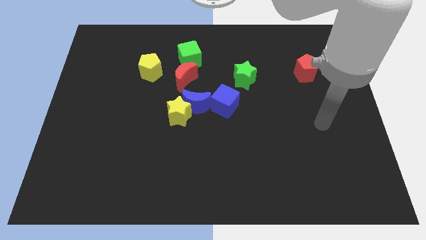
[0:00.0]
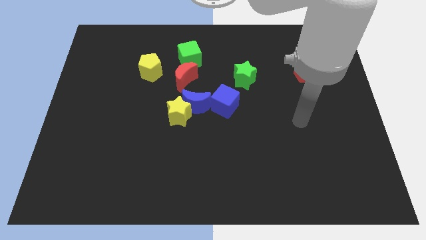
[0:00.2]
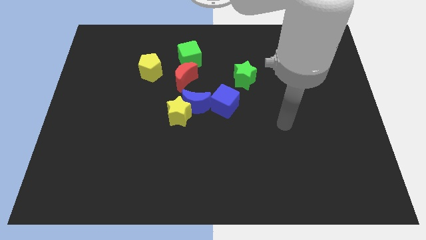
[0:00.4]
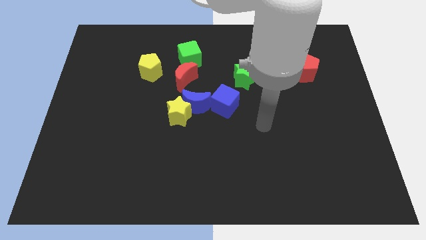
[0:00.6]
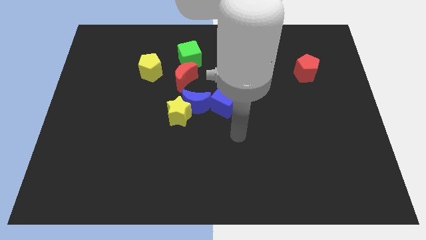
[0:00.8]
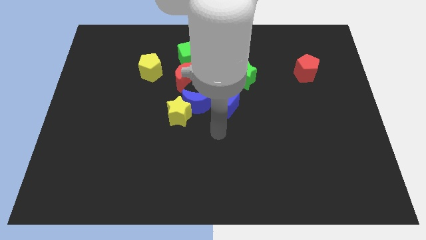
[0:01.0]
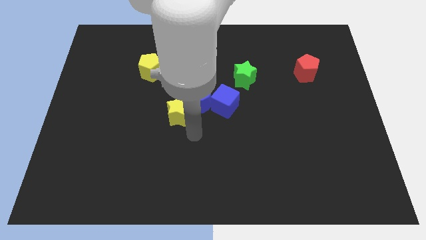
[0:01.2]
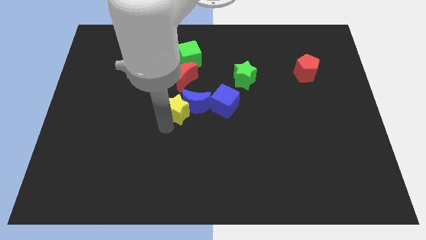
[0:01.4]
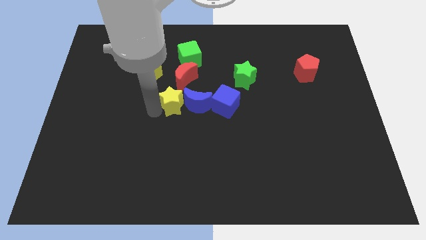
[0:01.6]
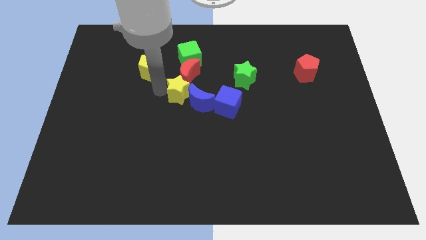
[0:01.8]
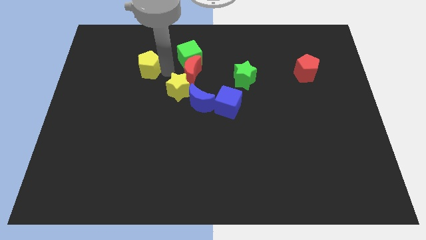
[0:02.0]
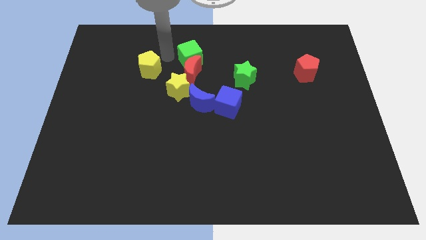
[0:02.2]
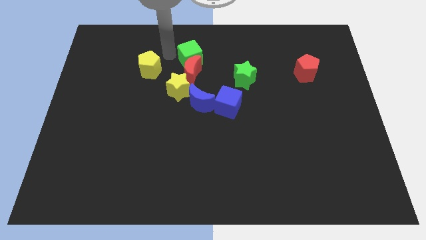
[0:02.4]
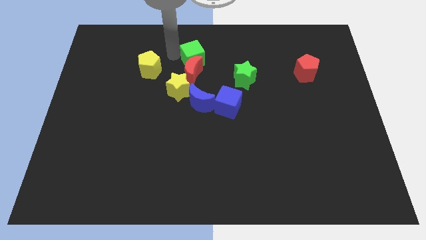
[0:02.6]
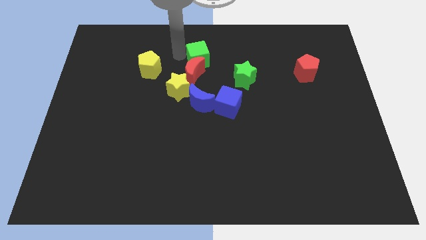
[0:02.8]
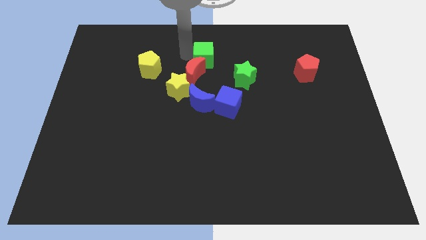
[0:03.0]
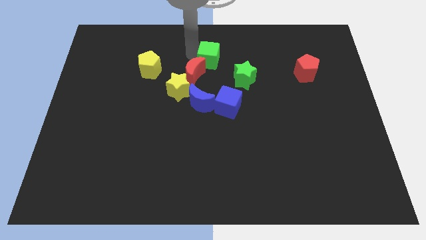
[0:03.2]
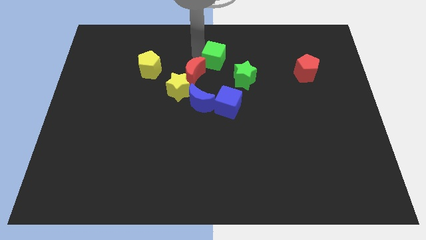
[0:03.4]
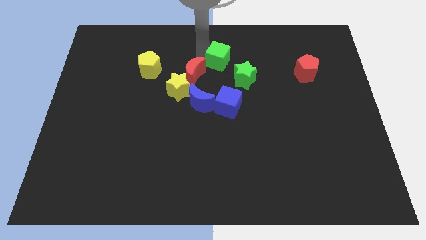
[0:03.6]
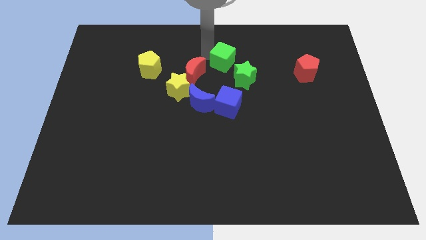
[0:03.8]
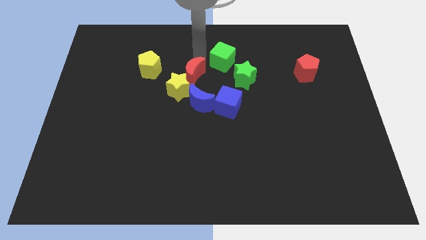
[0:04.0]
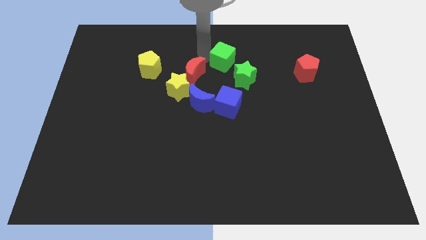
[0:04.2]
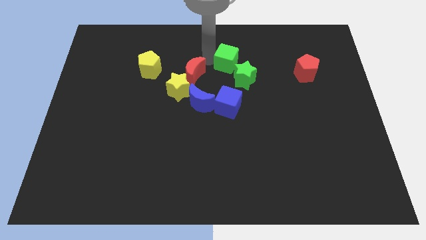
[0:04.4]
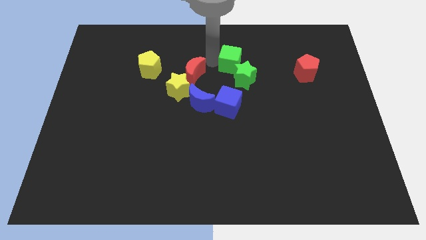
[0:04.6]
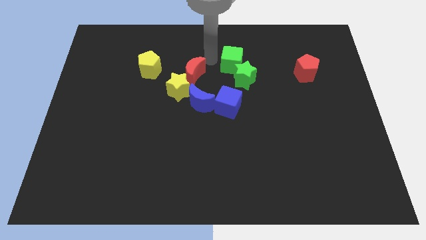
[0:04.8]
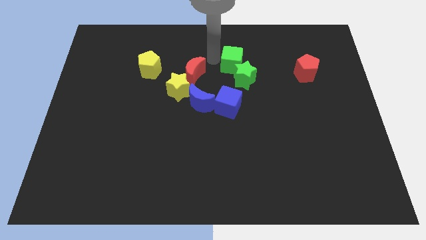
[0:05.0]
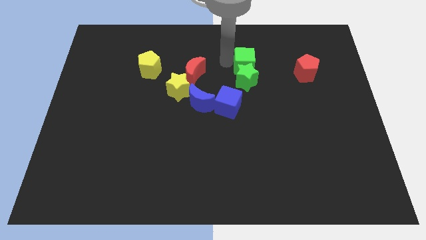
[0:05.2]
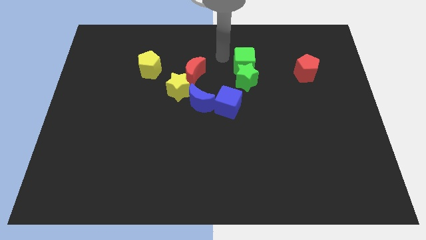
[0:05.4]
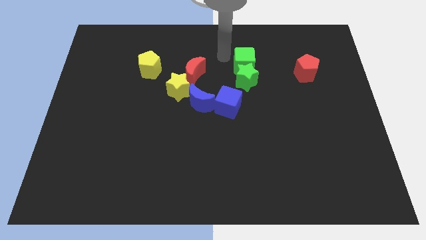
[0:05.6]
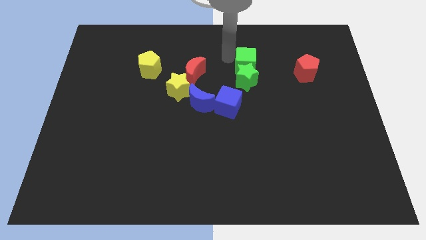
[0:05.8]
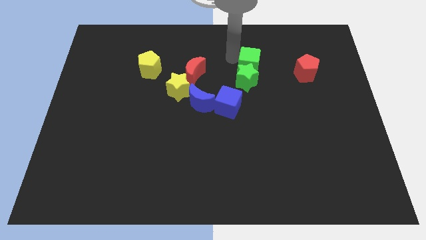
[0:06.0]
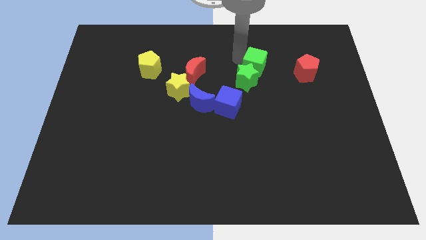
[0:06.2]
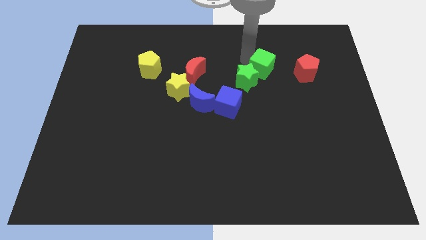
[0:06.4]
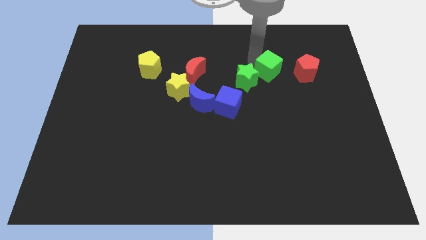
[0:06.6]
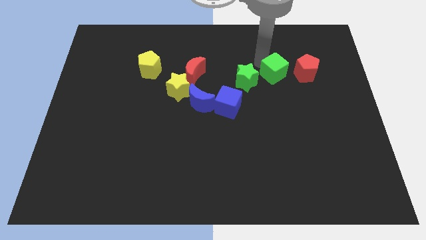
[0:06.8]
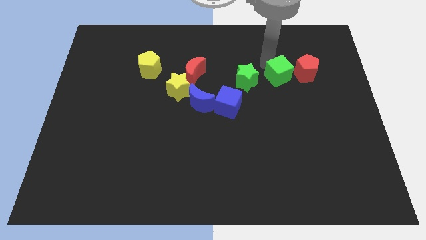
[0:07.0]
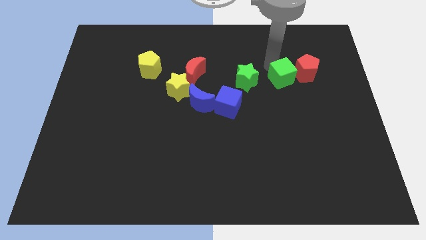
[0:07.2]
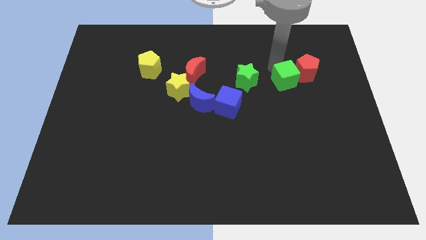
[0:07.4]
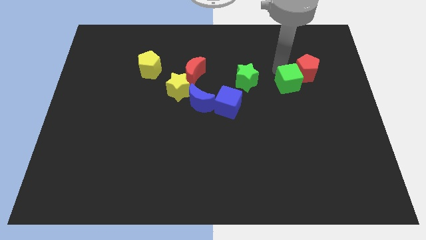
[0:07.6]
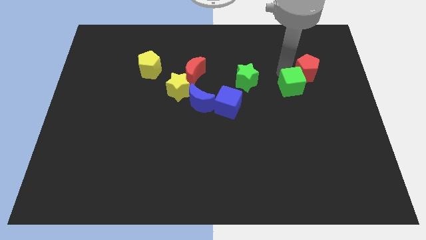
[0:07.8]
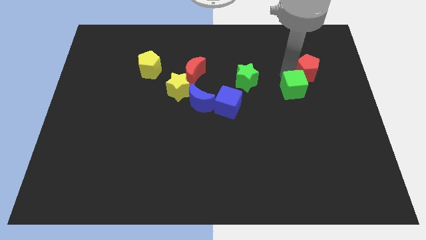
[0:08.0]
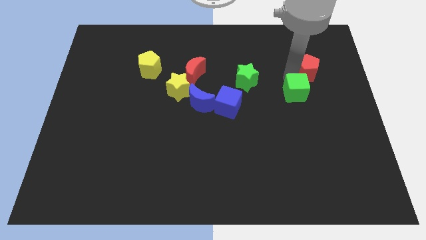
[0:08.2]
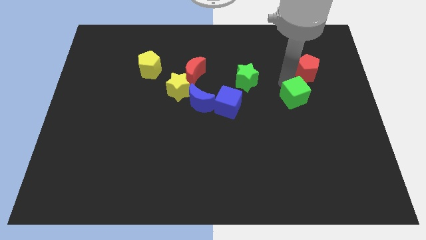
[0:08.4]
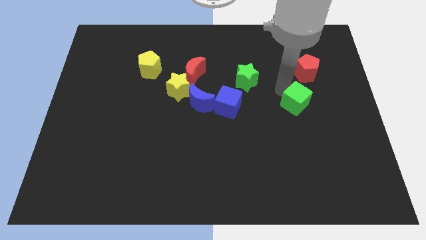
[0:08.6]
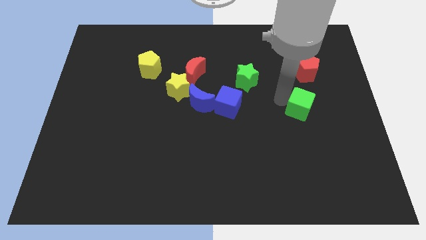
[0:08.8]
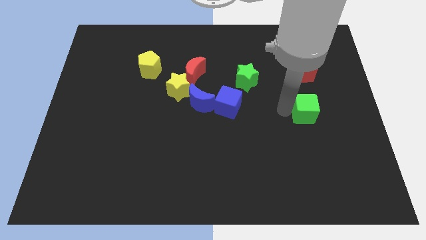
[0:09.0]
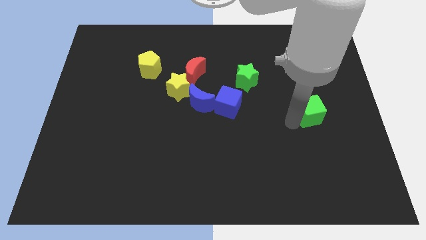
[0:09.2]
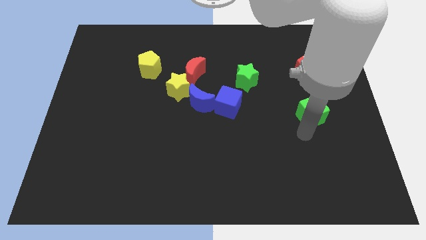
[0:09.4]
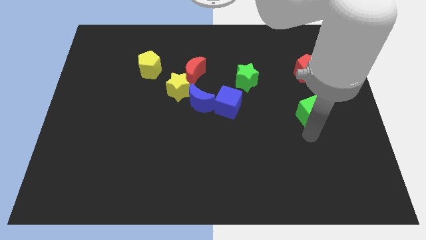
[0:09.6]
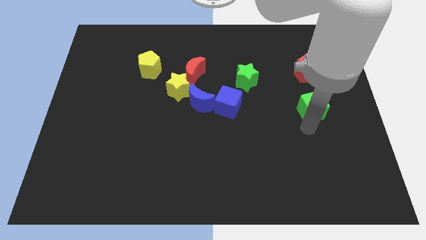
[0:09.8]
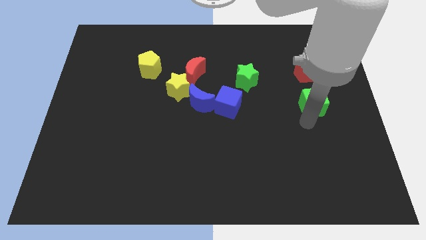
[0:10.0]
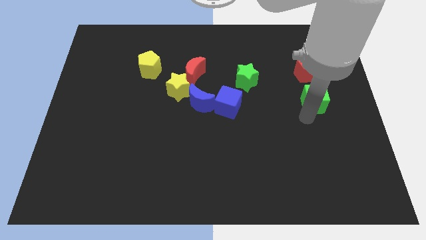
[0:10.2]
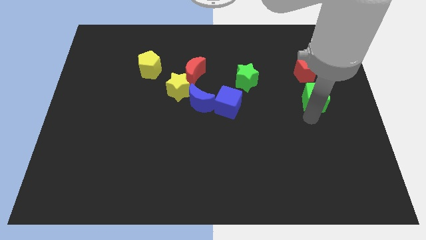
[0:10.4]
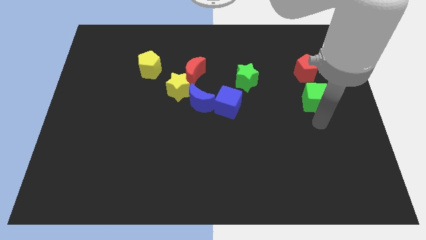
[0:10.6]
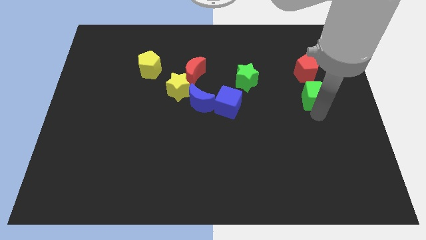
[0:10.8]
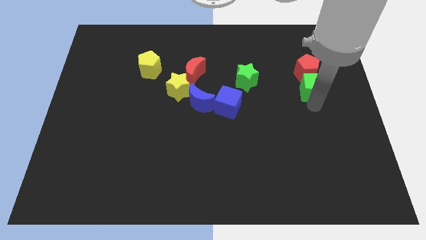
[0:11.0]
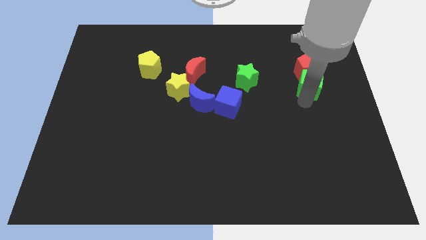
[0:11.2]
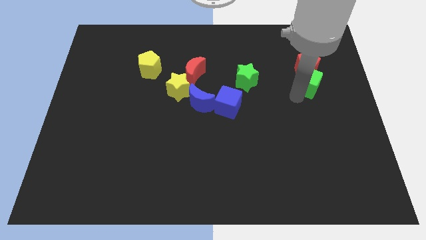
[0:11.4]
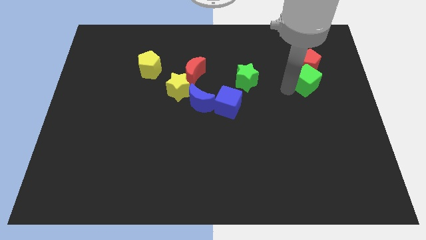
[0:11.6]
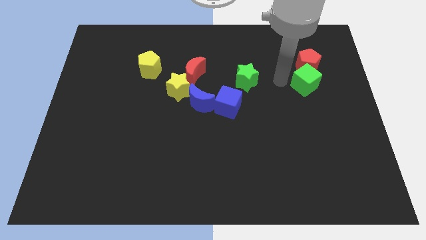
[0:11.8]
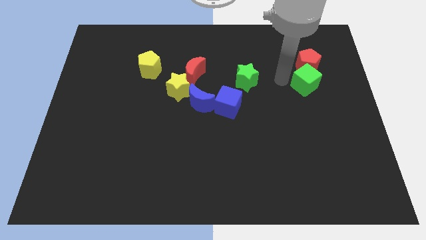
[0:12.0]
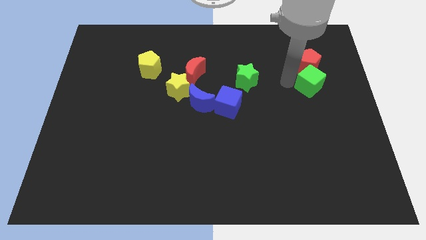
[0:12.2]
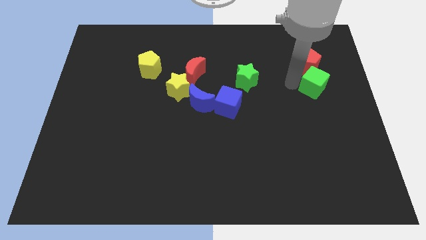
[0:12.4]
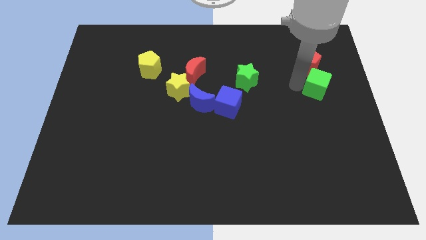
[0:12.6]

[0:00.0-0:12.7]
put the green cube to the right side

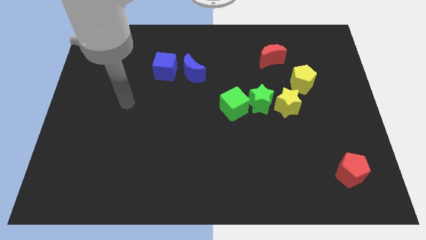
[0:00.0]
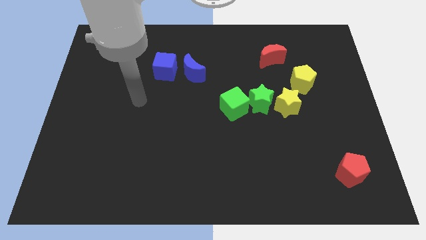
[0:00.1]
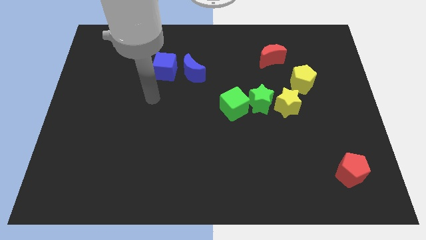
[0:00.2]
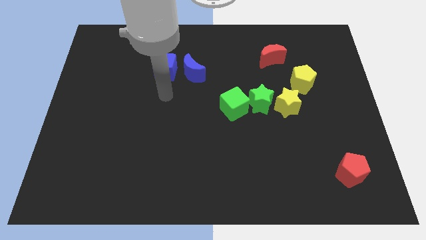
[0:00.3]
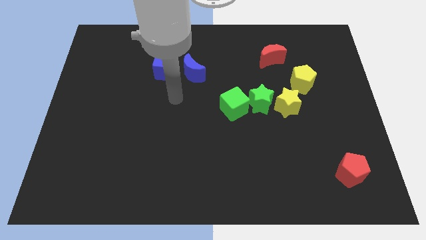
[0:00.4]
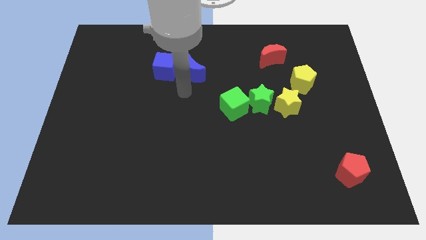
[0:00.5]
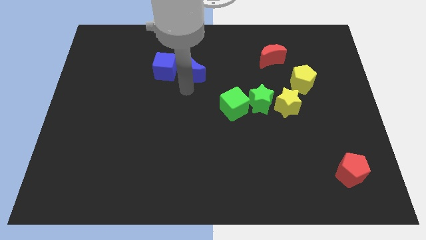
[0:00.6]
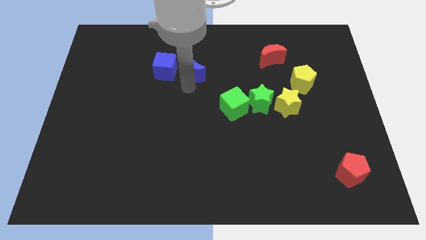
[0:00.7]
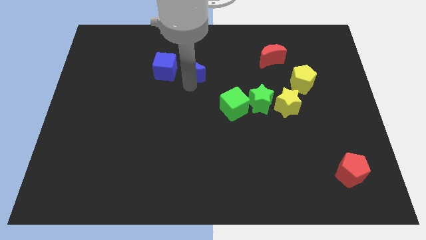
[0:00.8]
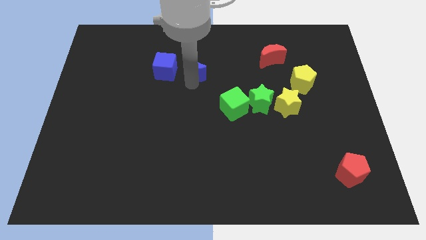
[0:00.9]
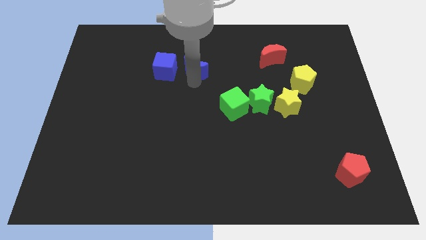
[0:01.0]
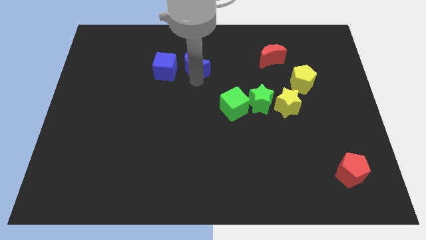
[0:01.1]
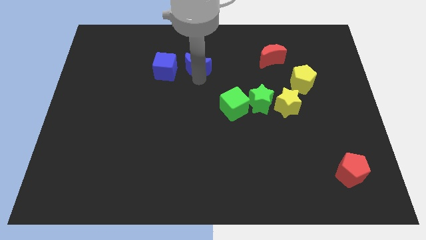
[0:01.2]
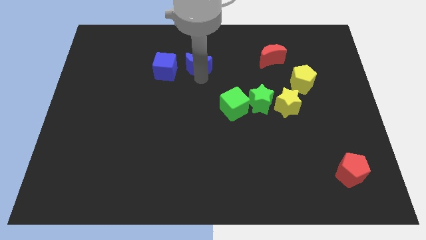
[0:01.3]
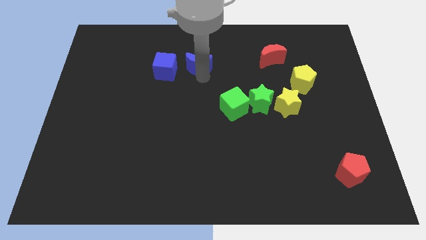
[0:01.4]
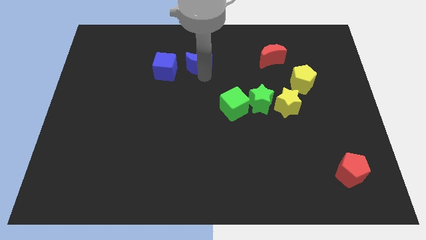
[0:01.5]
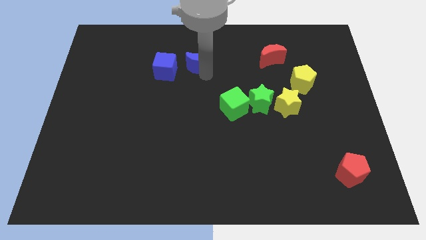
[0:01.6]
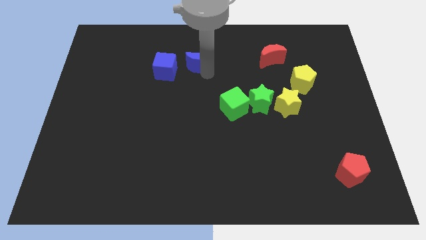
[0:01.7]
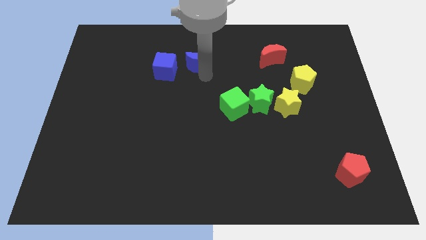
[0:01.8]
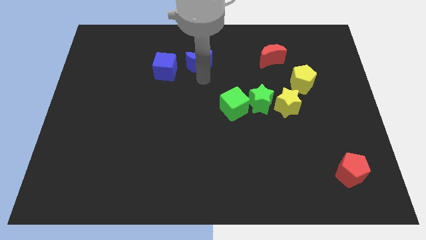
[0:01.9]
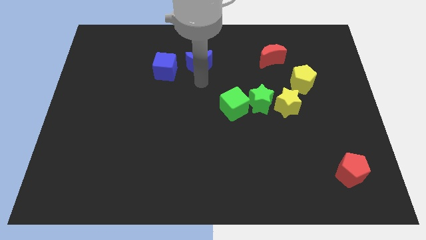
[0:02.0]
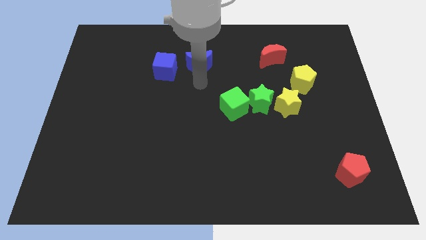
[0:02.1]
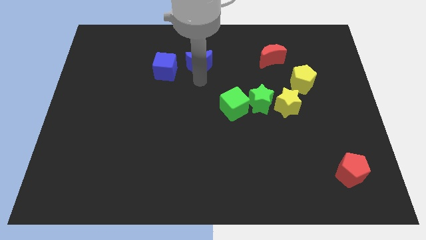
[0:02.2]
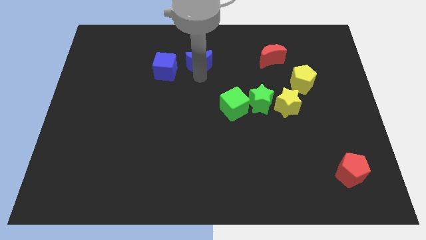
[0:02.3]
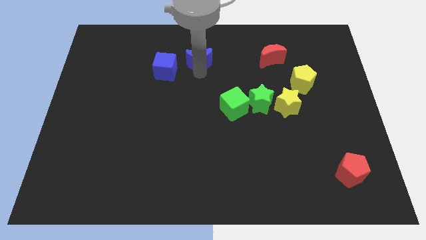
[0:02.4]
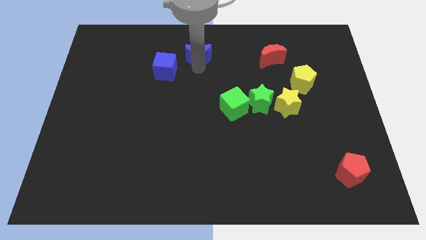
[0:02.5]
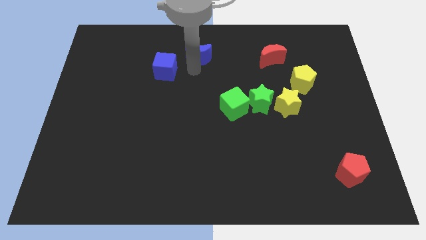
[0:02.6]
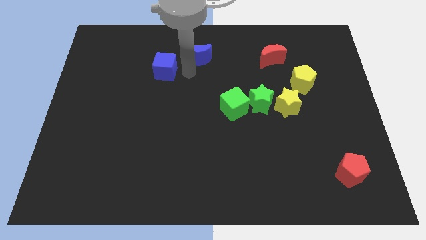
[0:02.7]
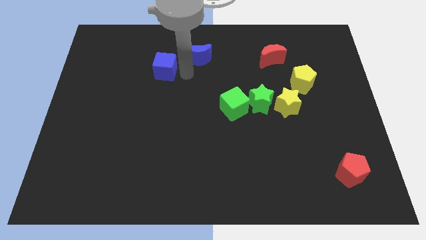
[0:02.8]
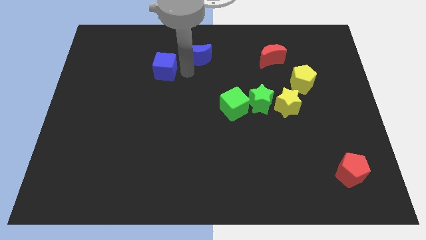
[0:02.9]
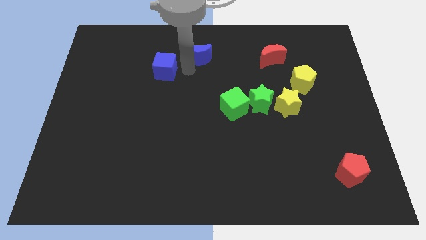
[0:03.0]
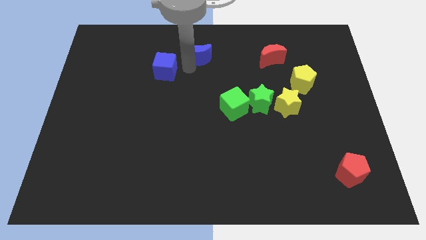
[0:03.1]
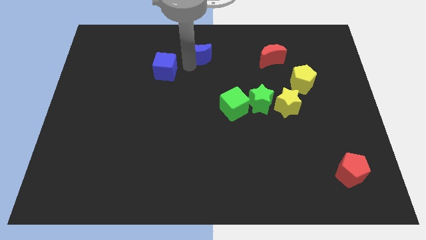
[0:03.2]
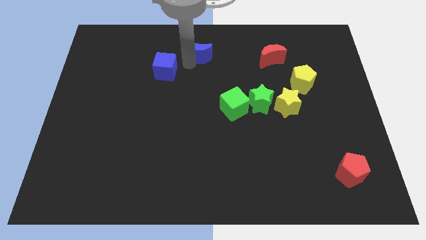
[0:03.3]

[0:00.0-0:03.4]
slide the blue moon to the top side
